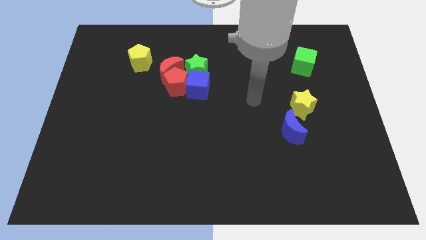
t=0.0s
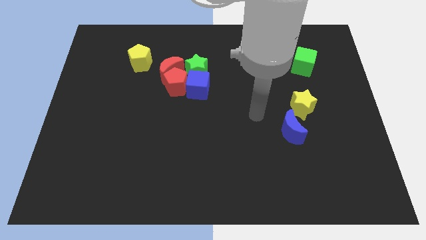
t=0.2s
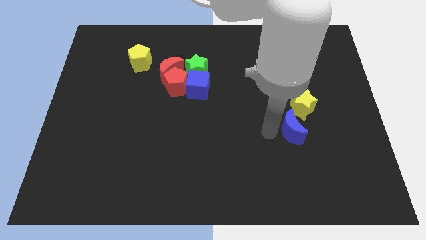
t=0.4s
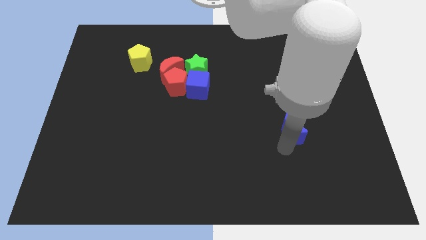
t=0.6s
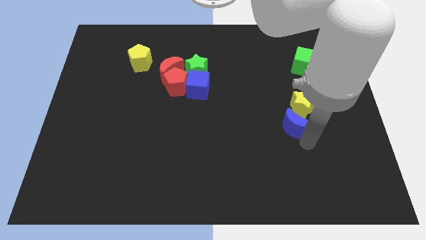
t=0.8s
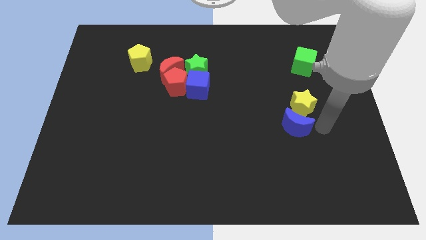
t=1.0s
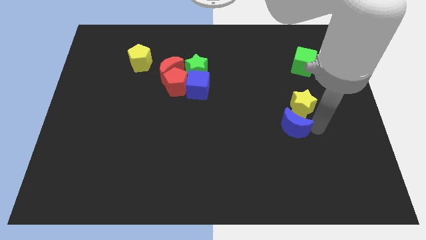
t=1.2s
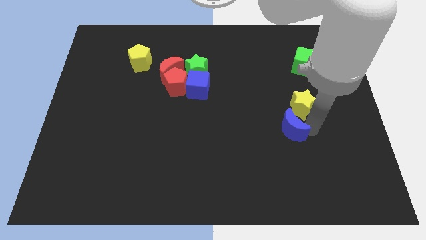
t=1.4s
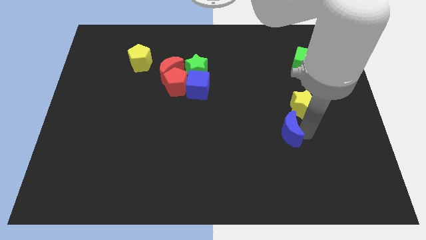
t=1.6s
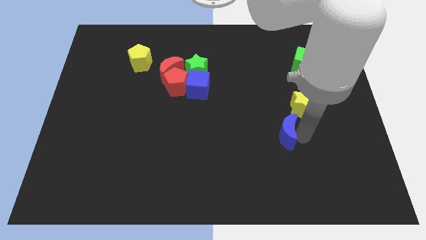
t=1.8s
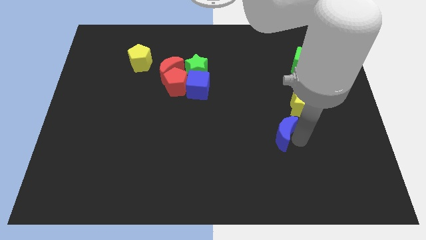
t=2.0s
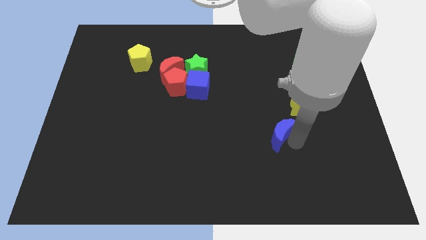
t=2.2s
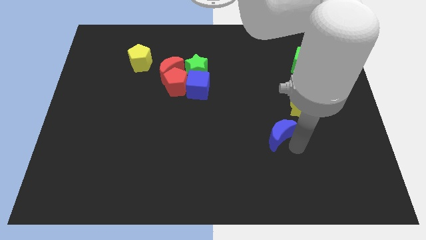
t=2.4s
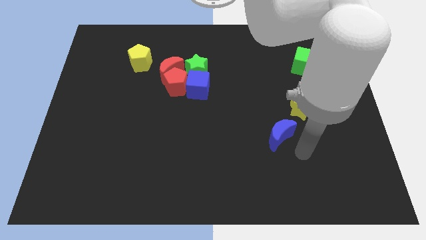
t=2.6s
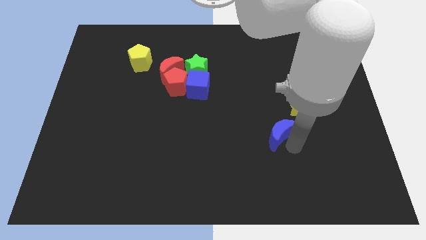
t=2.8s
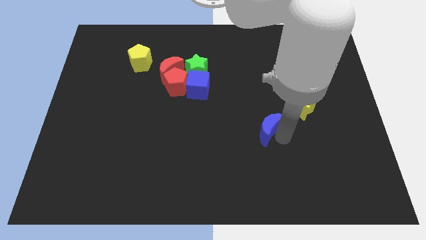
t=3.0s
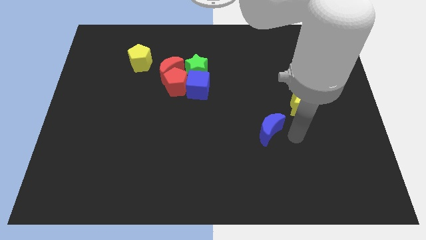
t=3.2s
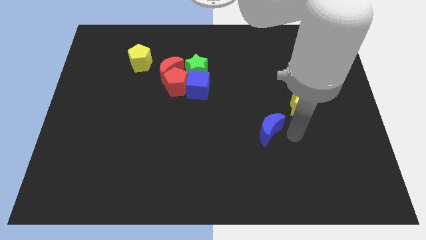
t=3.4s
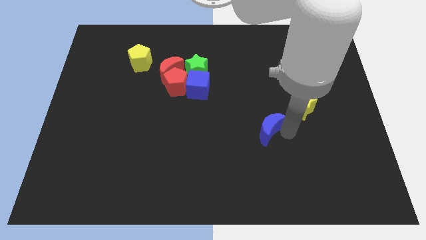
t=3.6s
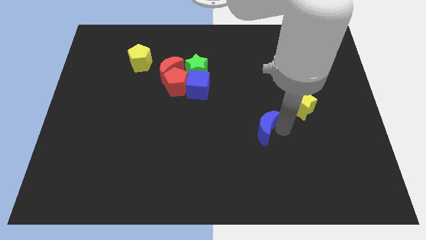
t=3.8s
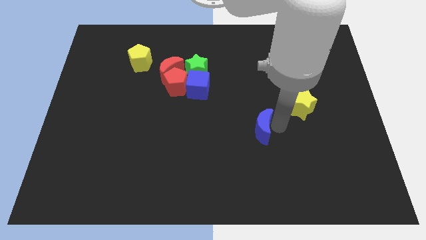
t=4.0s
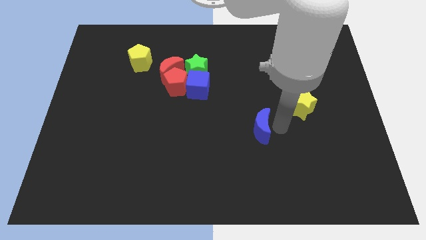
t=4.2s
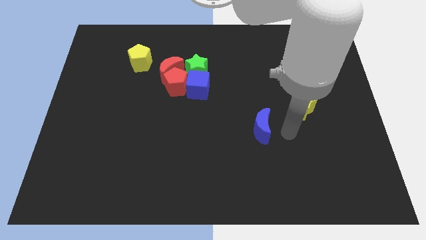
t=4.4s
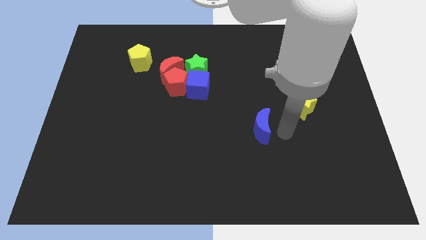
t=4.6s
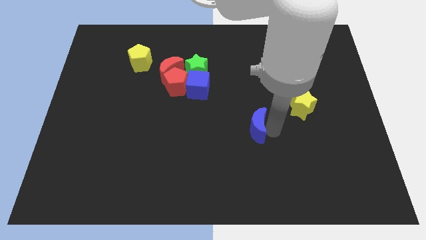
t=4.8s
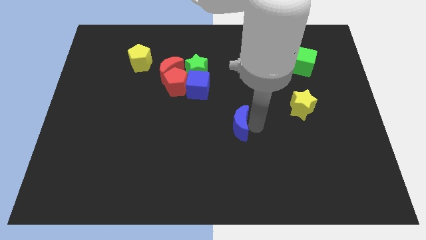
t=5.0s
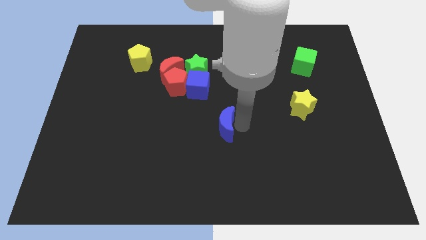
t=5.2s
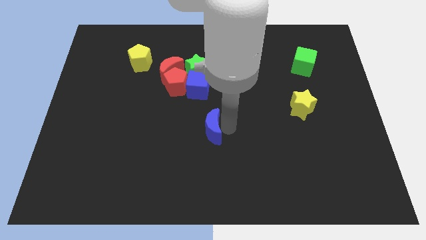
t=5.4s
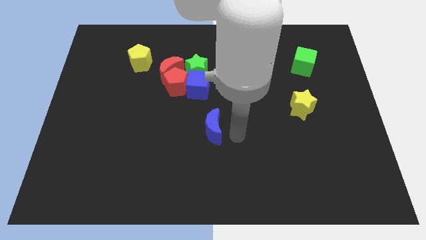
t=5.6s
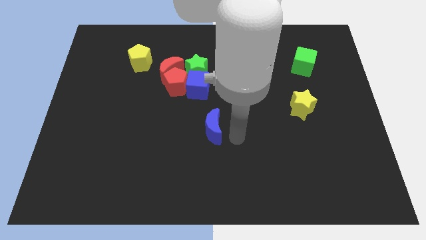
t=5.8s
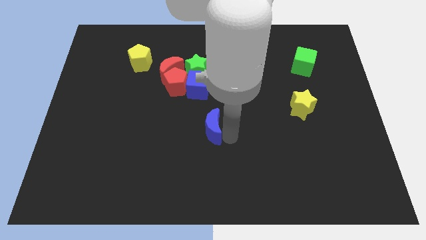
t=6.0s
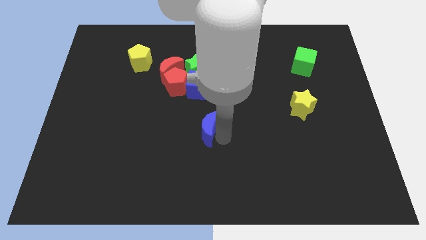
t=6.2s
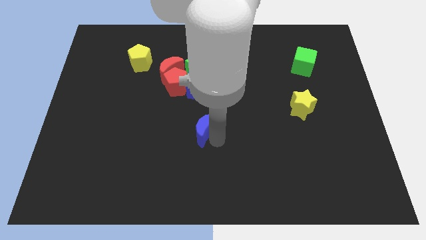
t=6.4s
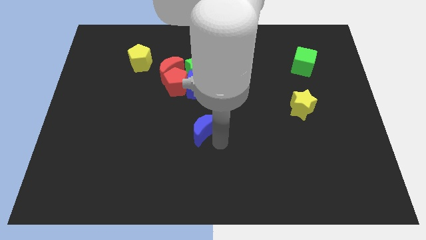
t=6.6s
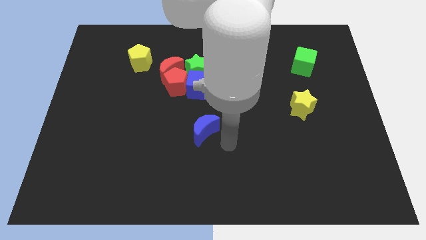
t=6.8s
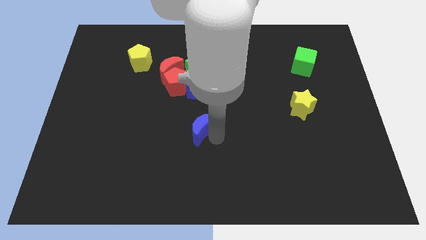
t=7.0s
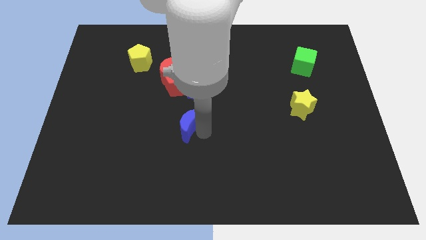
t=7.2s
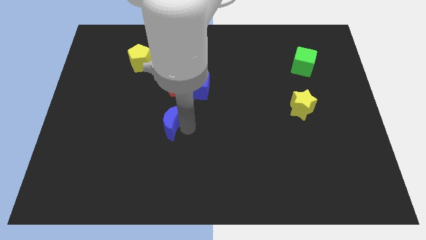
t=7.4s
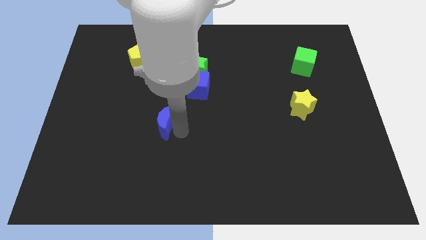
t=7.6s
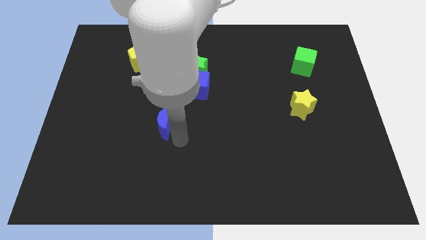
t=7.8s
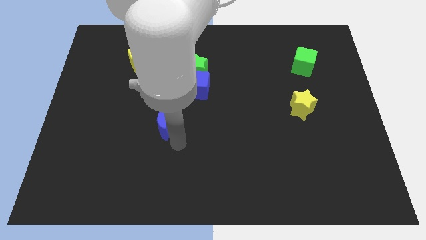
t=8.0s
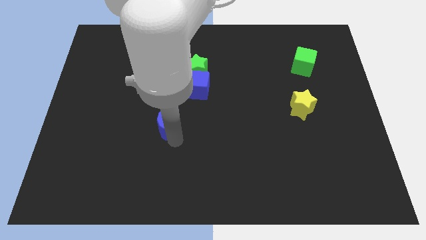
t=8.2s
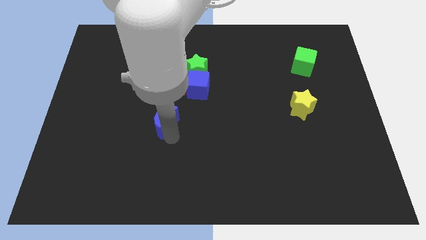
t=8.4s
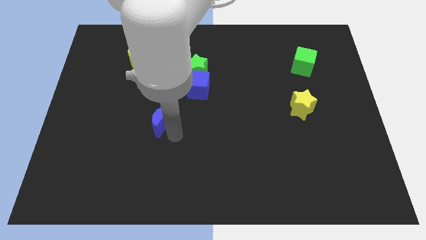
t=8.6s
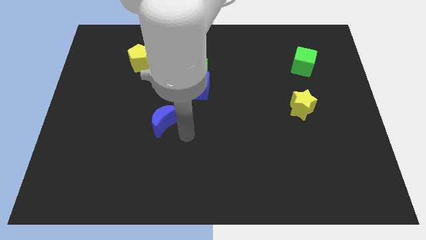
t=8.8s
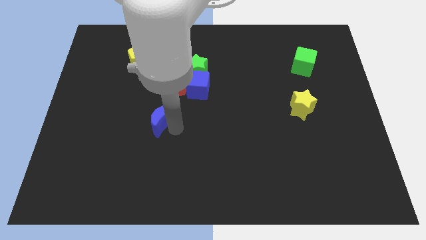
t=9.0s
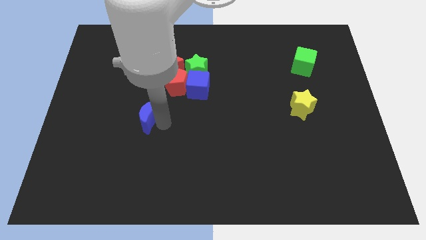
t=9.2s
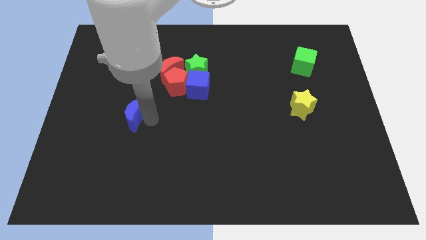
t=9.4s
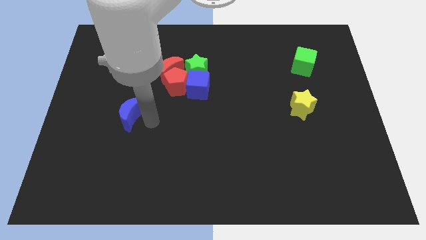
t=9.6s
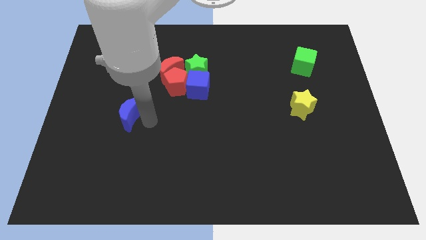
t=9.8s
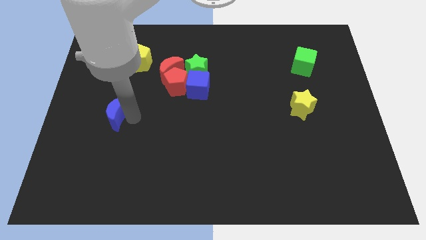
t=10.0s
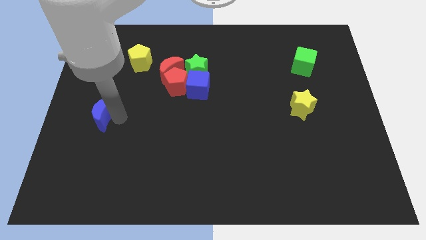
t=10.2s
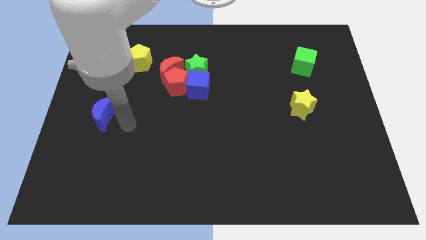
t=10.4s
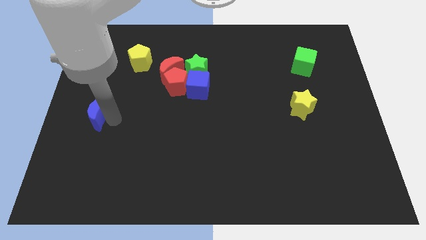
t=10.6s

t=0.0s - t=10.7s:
move the blue moon to the left side

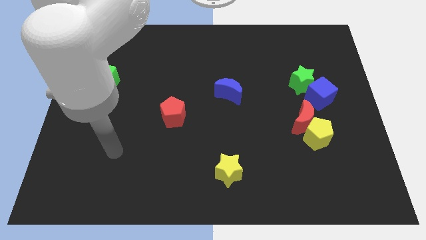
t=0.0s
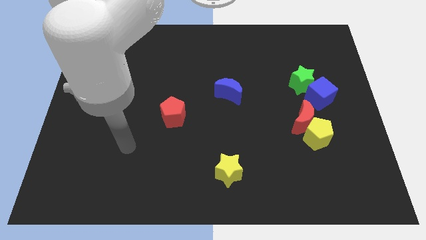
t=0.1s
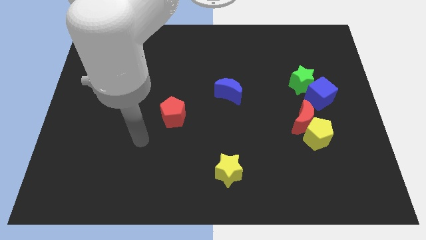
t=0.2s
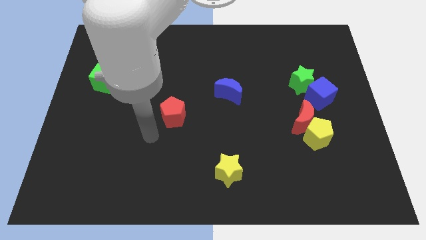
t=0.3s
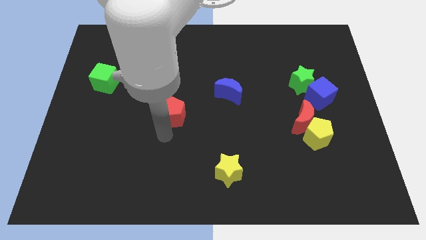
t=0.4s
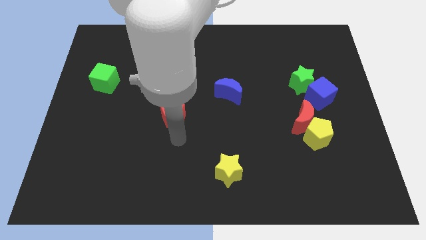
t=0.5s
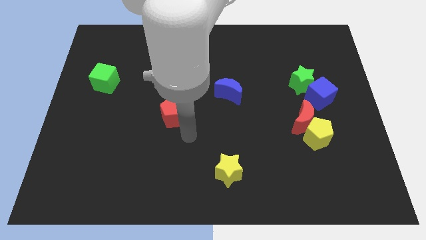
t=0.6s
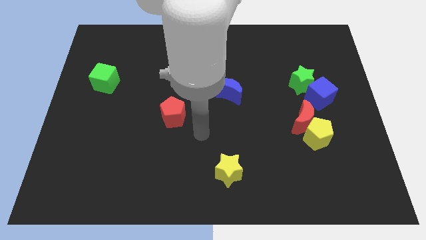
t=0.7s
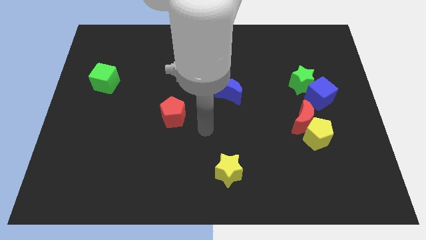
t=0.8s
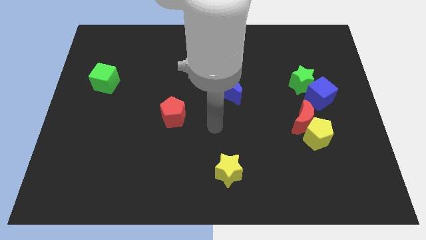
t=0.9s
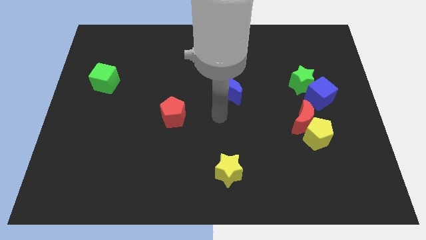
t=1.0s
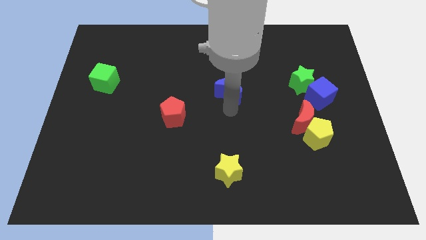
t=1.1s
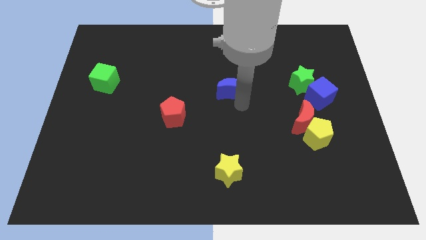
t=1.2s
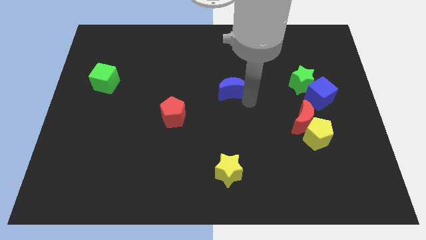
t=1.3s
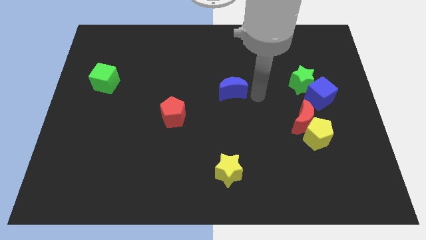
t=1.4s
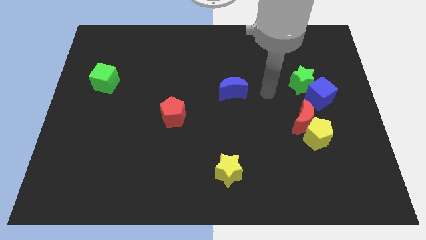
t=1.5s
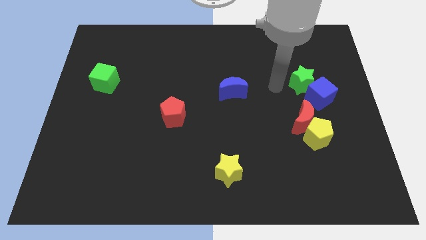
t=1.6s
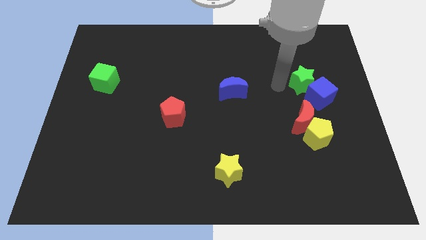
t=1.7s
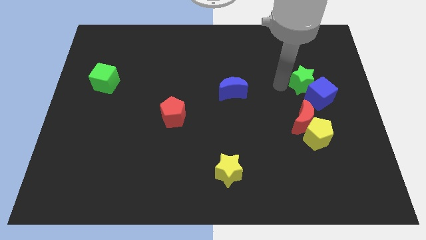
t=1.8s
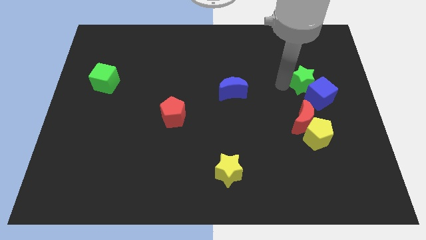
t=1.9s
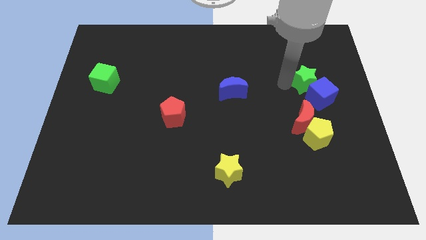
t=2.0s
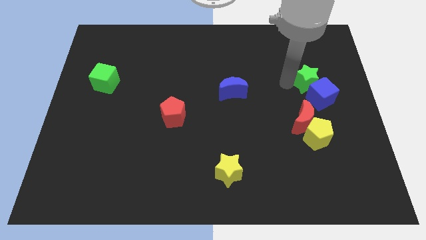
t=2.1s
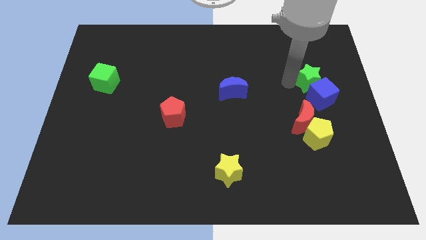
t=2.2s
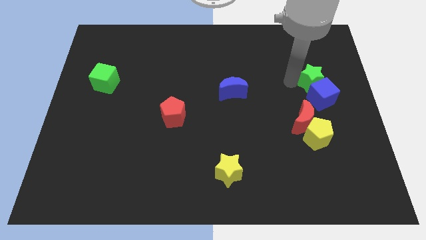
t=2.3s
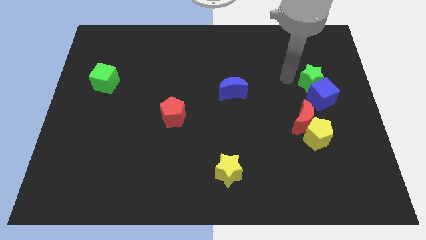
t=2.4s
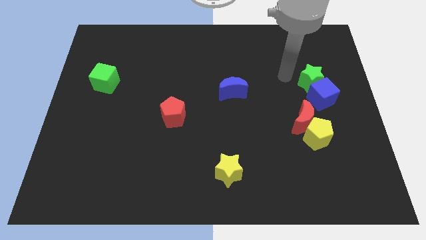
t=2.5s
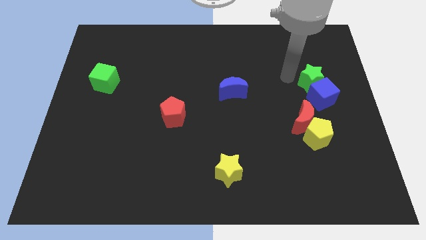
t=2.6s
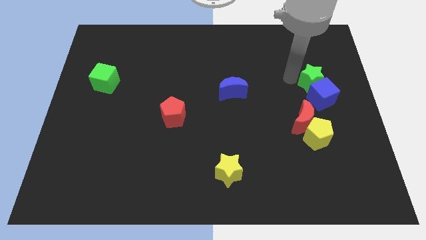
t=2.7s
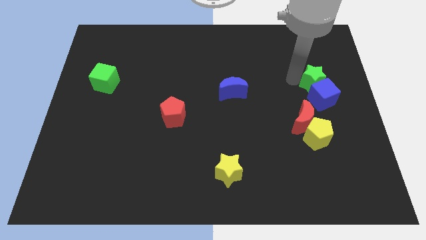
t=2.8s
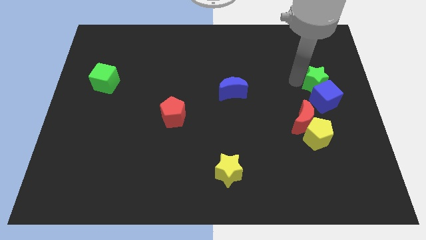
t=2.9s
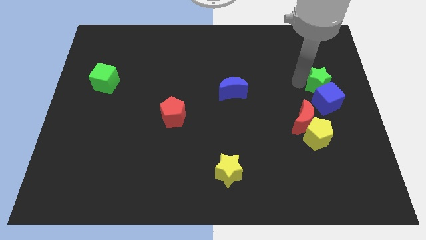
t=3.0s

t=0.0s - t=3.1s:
push the green star to the center right
